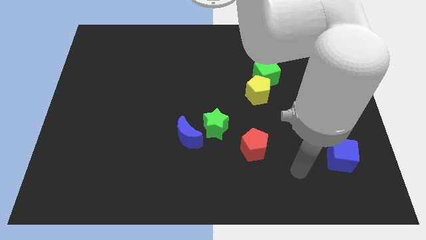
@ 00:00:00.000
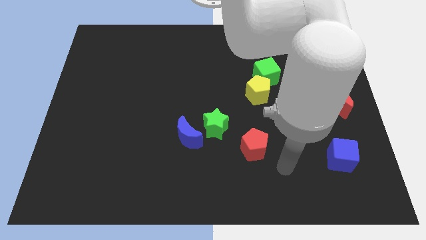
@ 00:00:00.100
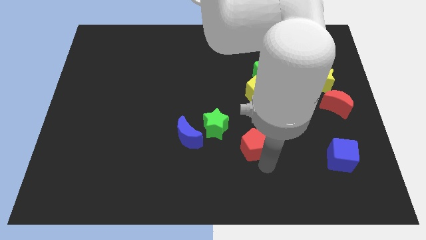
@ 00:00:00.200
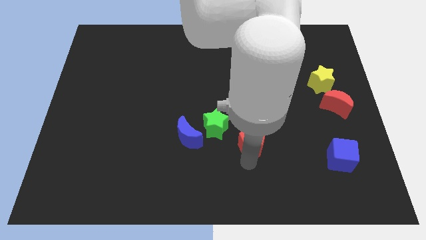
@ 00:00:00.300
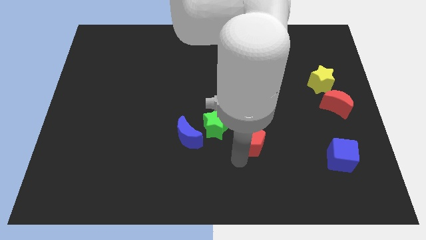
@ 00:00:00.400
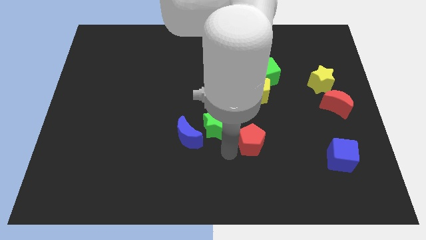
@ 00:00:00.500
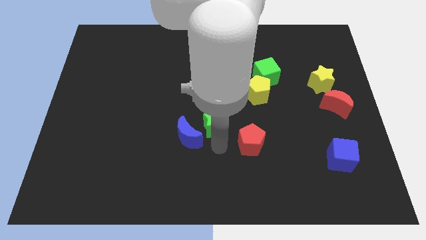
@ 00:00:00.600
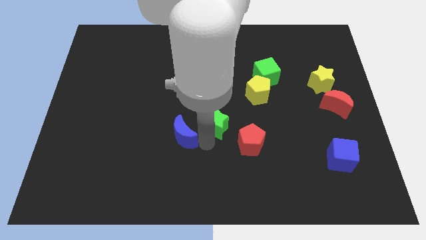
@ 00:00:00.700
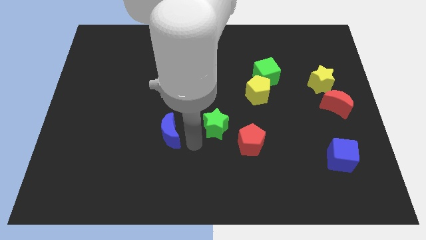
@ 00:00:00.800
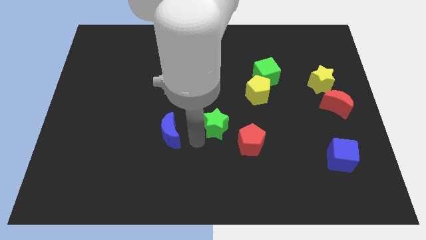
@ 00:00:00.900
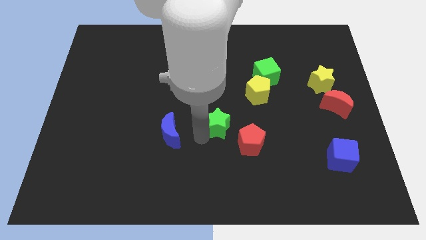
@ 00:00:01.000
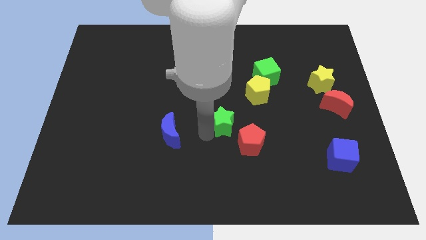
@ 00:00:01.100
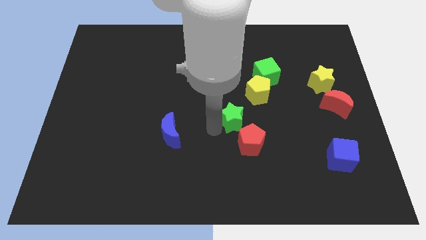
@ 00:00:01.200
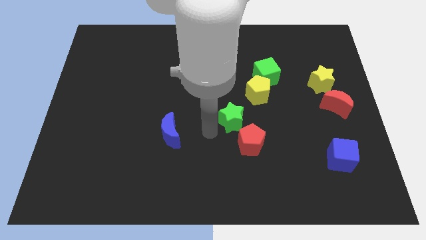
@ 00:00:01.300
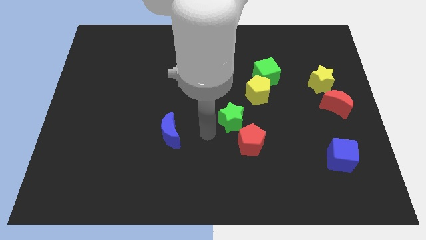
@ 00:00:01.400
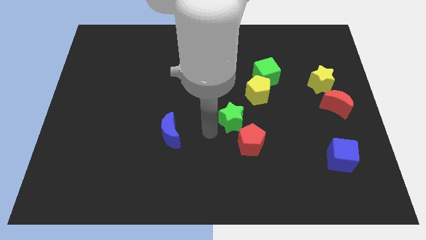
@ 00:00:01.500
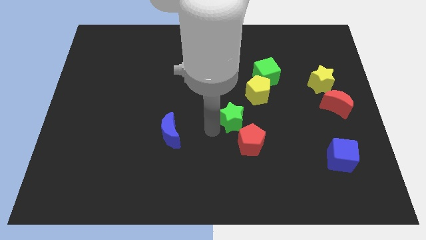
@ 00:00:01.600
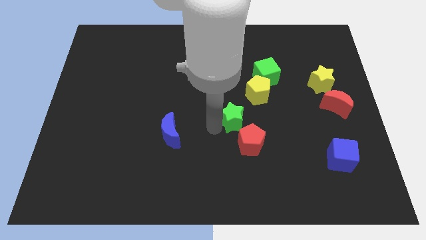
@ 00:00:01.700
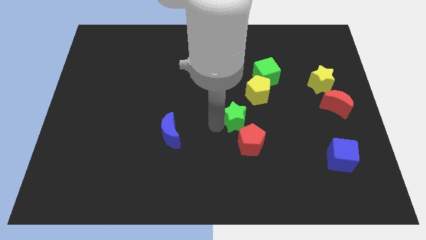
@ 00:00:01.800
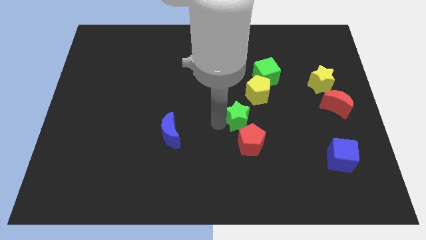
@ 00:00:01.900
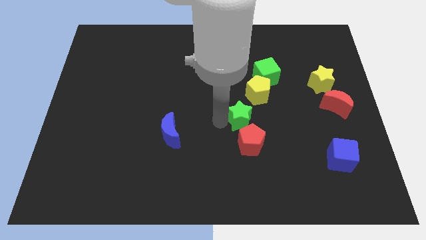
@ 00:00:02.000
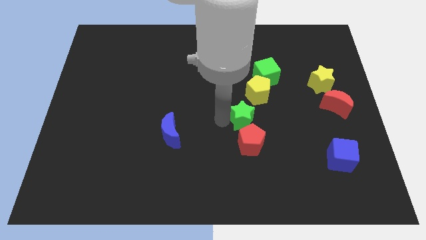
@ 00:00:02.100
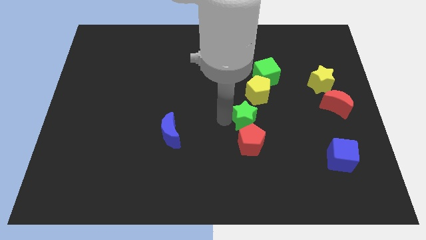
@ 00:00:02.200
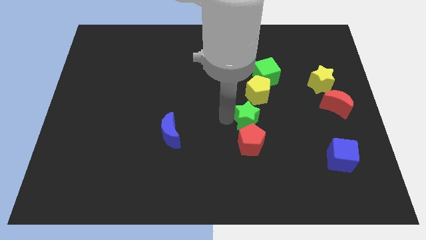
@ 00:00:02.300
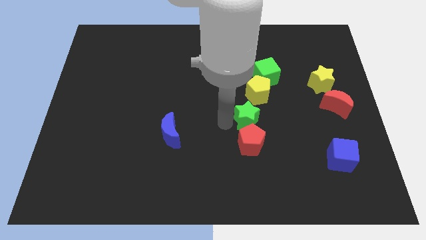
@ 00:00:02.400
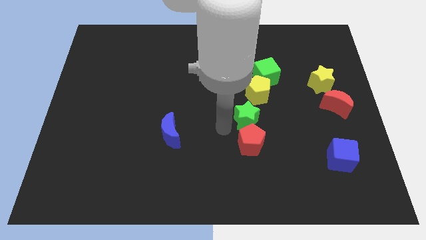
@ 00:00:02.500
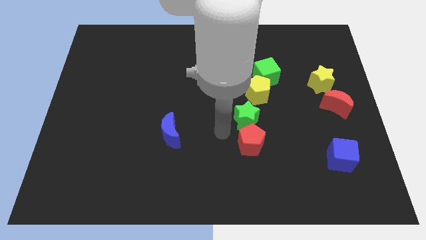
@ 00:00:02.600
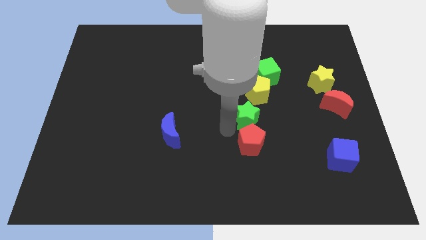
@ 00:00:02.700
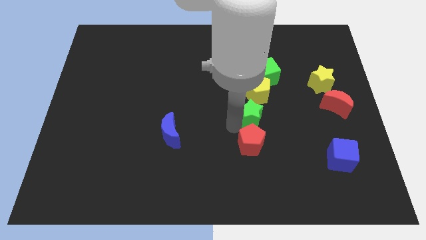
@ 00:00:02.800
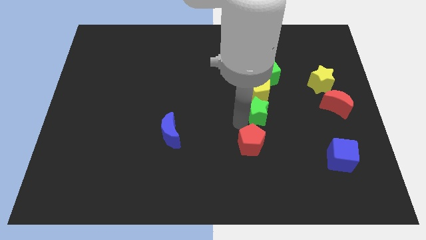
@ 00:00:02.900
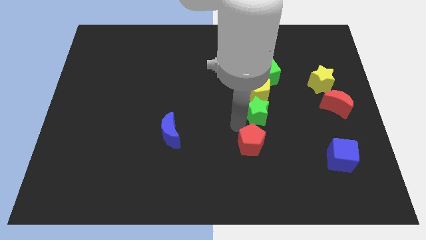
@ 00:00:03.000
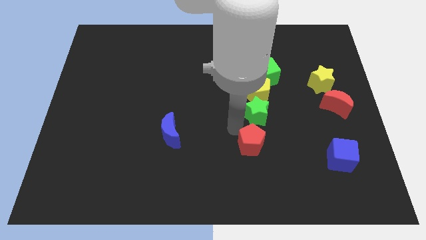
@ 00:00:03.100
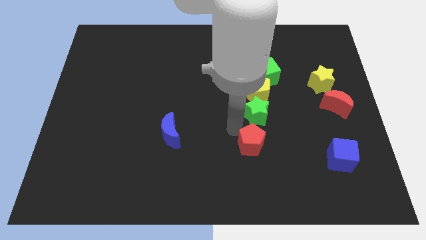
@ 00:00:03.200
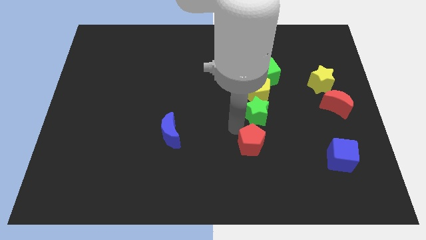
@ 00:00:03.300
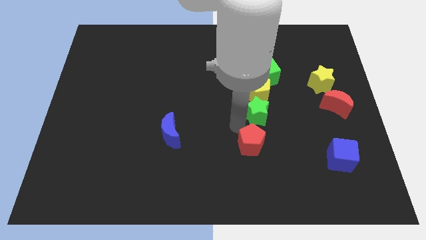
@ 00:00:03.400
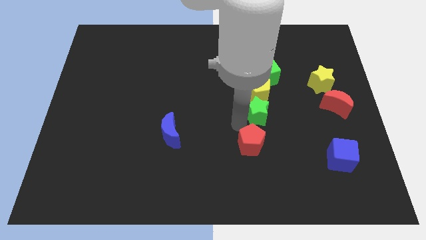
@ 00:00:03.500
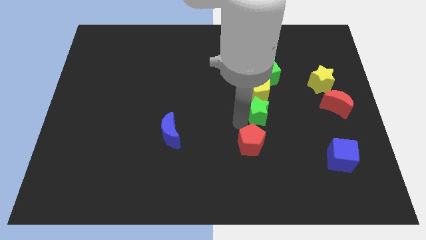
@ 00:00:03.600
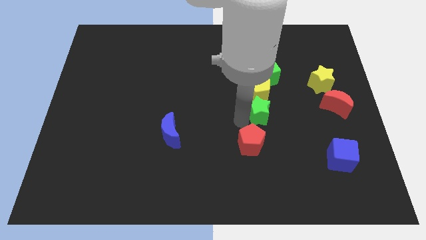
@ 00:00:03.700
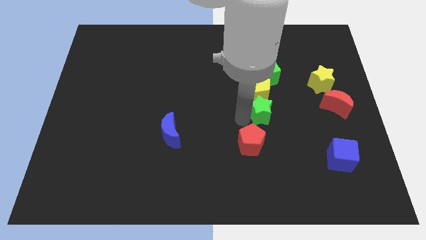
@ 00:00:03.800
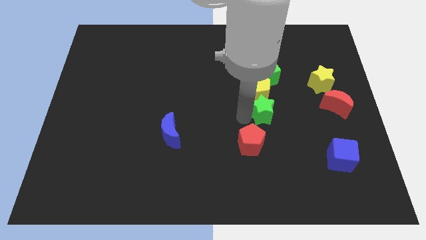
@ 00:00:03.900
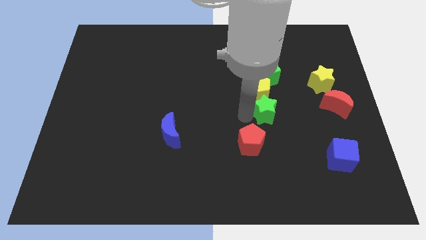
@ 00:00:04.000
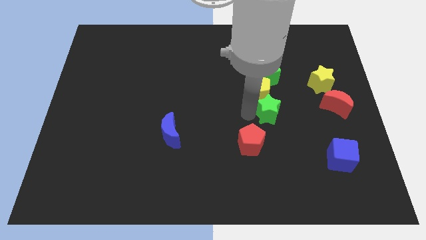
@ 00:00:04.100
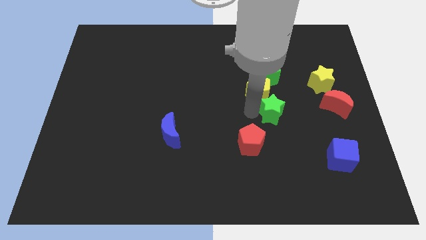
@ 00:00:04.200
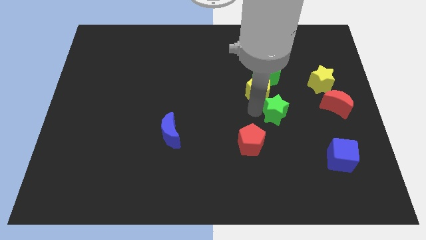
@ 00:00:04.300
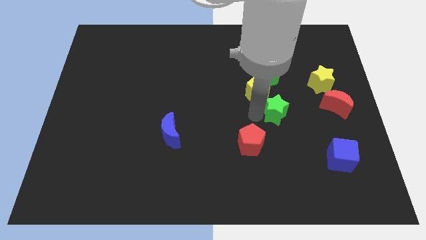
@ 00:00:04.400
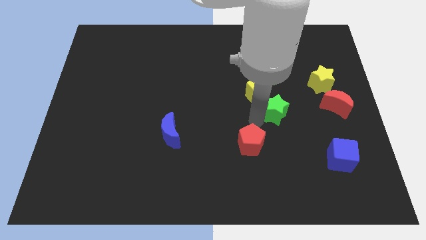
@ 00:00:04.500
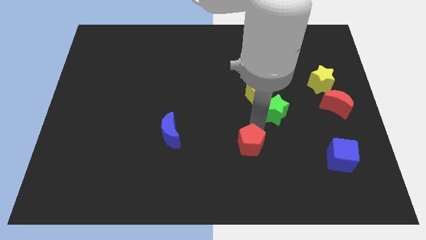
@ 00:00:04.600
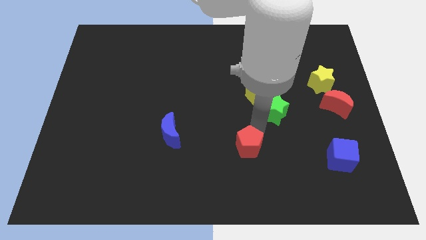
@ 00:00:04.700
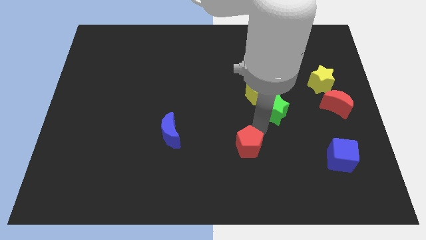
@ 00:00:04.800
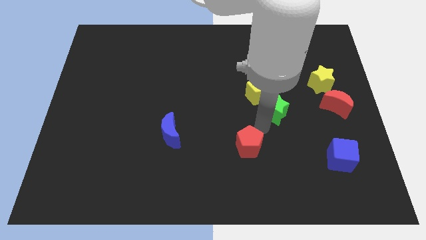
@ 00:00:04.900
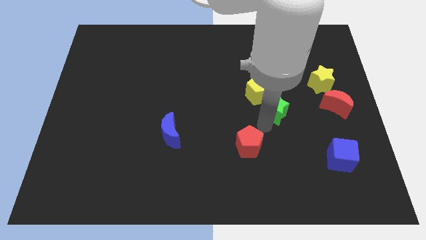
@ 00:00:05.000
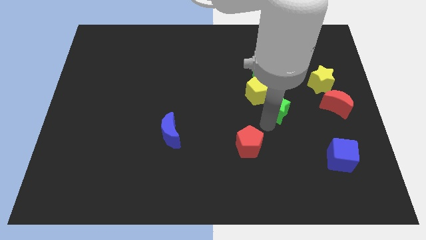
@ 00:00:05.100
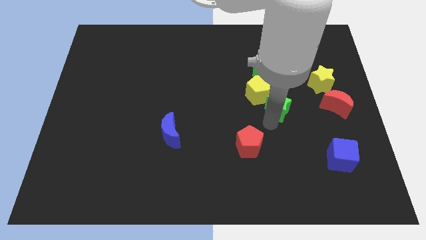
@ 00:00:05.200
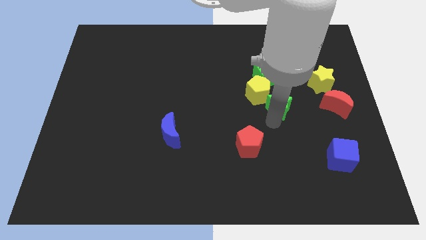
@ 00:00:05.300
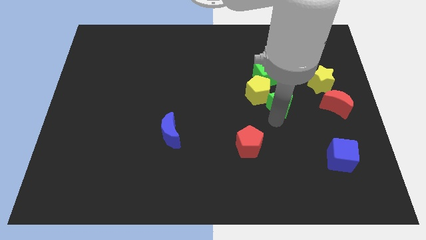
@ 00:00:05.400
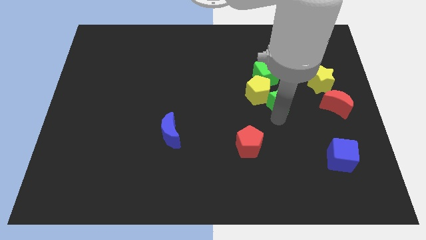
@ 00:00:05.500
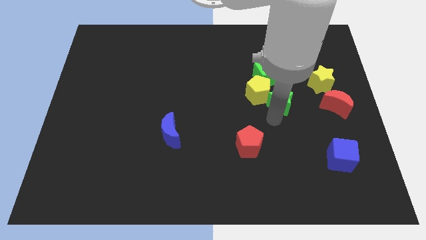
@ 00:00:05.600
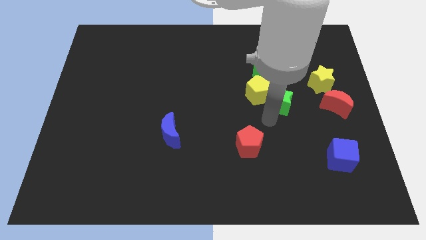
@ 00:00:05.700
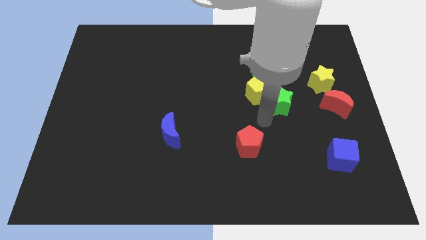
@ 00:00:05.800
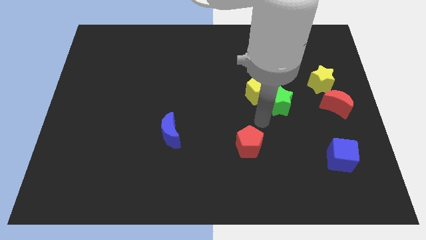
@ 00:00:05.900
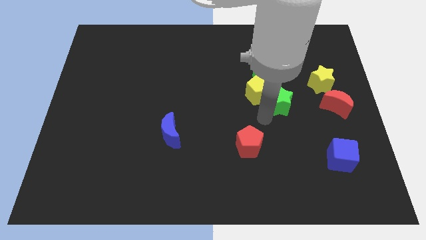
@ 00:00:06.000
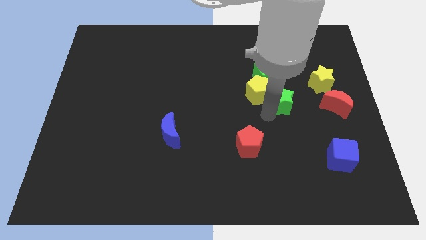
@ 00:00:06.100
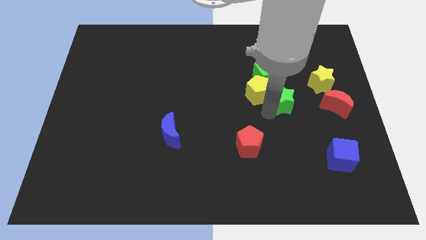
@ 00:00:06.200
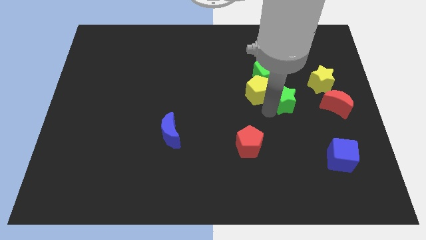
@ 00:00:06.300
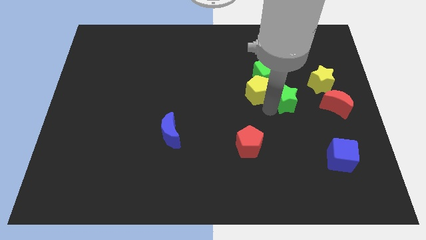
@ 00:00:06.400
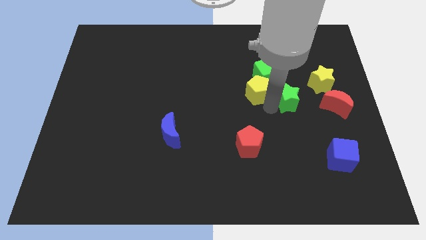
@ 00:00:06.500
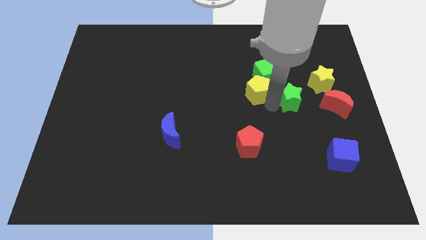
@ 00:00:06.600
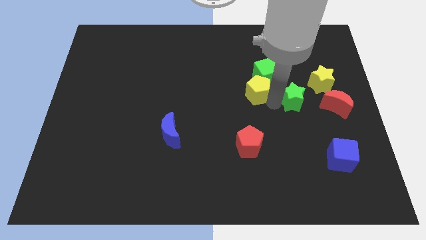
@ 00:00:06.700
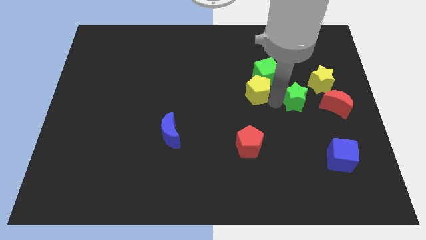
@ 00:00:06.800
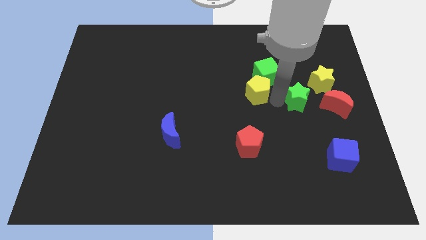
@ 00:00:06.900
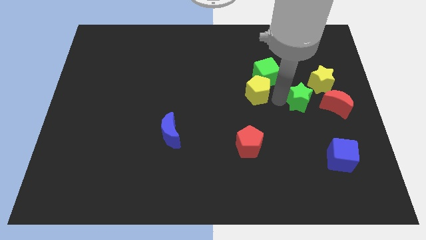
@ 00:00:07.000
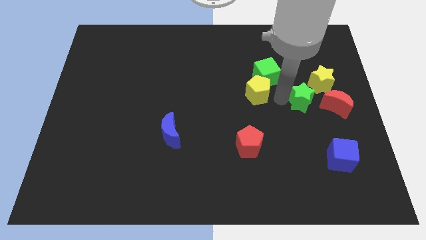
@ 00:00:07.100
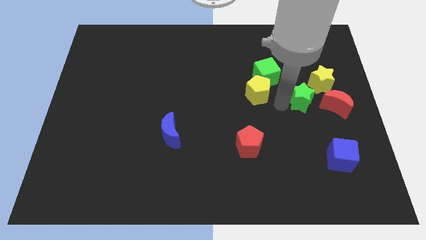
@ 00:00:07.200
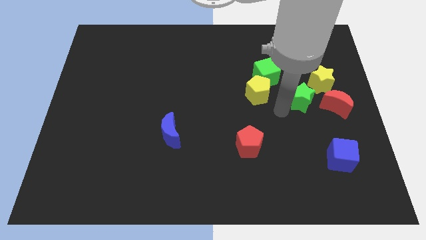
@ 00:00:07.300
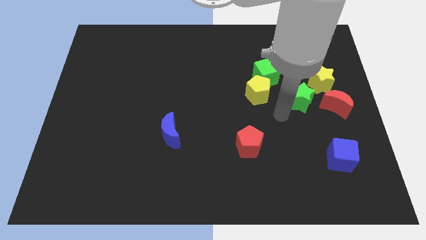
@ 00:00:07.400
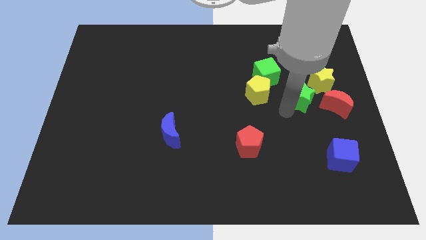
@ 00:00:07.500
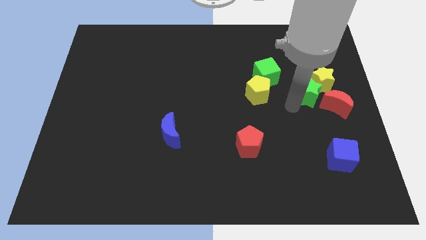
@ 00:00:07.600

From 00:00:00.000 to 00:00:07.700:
push the green star towards the yellow star
